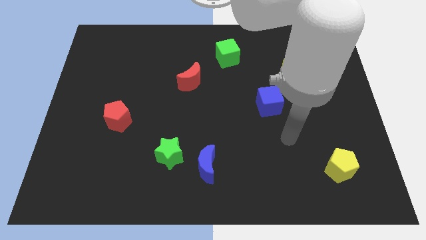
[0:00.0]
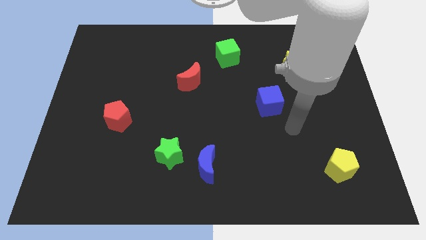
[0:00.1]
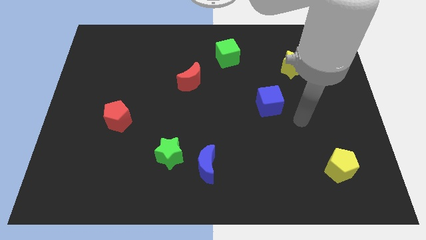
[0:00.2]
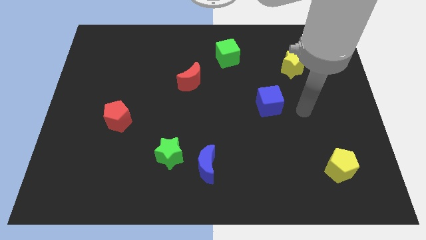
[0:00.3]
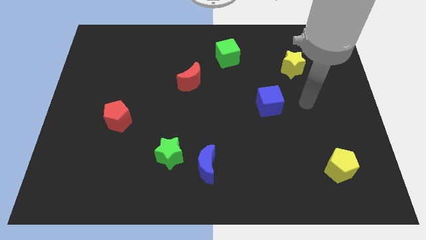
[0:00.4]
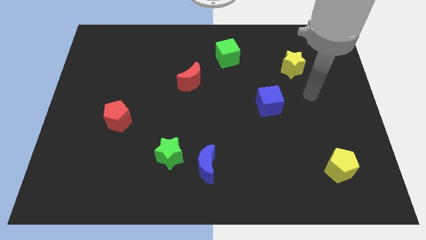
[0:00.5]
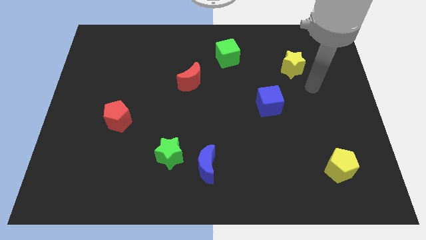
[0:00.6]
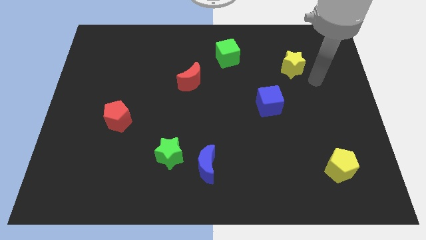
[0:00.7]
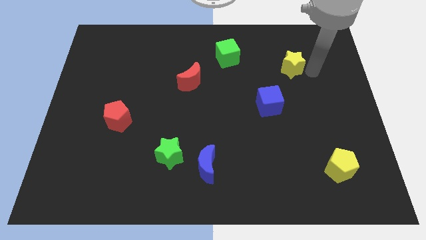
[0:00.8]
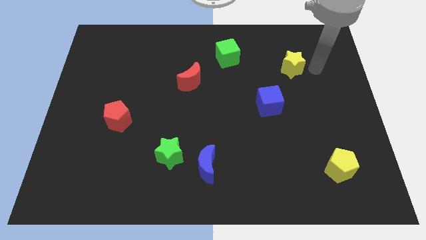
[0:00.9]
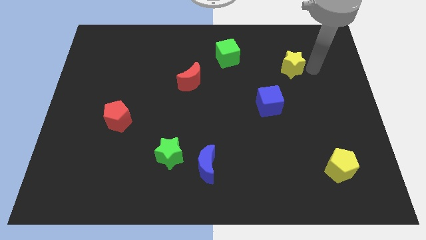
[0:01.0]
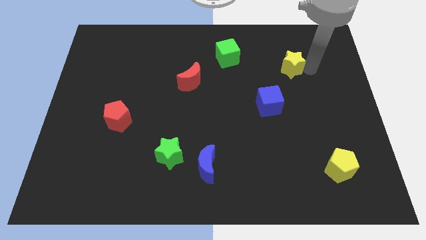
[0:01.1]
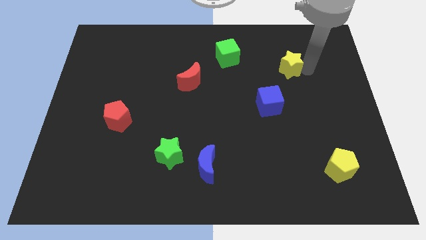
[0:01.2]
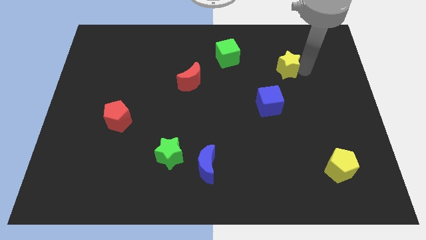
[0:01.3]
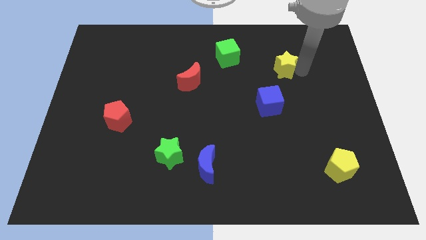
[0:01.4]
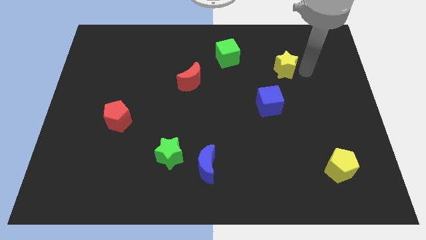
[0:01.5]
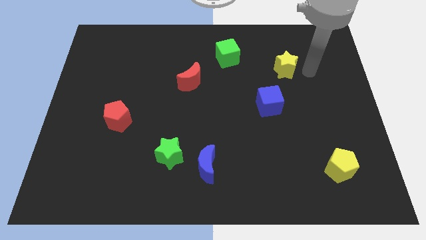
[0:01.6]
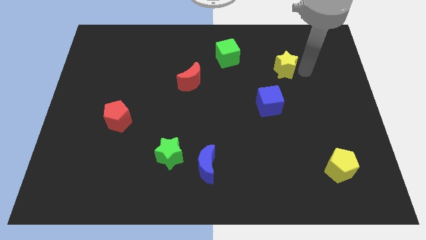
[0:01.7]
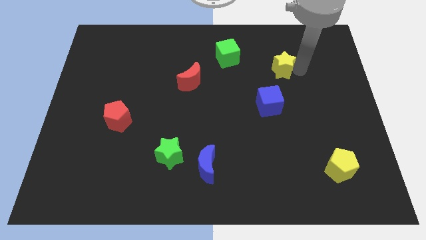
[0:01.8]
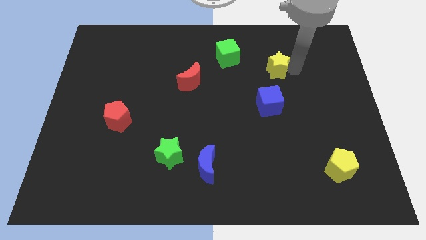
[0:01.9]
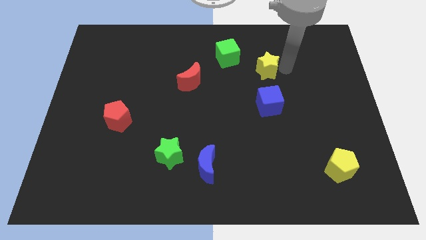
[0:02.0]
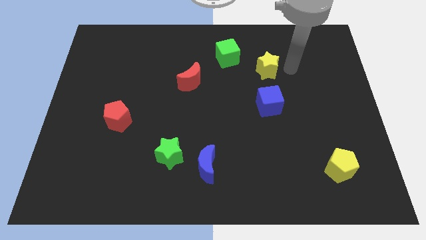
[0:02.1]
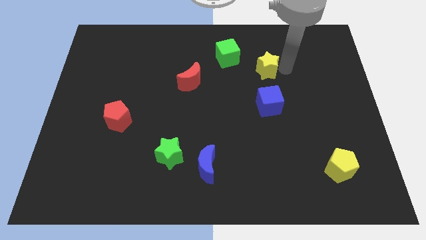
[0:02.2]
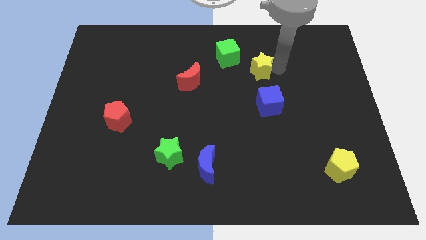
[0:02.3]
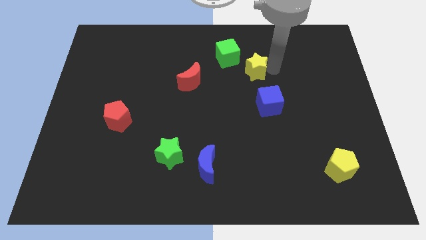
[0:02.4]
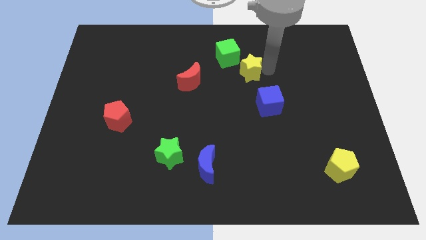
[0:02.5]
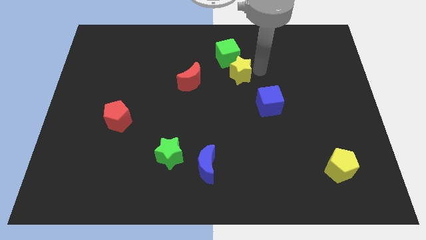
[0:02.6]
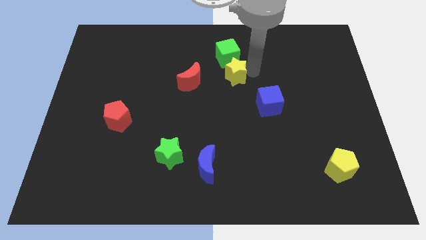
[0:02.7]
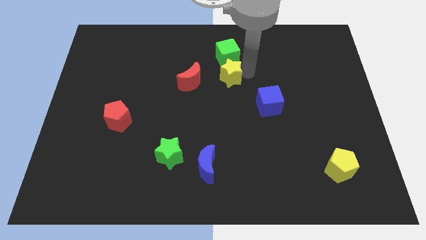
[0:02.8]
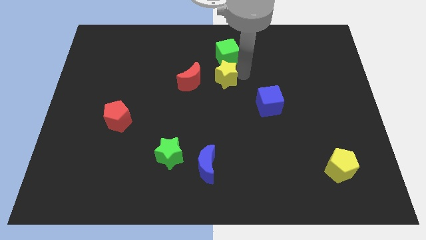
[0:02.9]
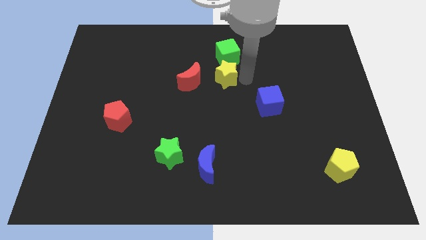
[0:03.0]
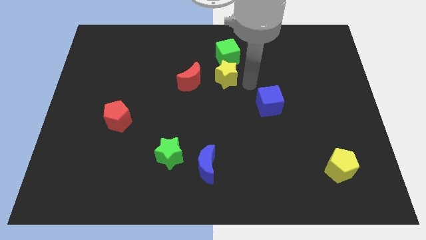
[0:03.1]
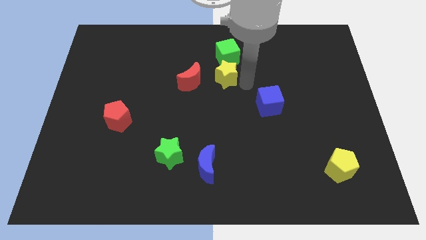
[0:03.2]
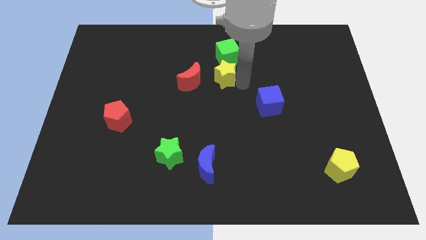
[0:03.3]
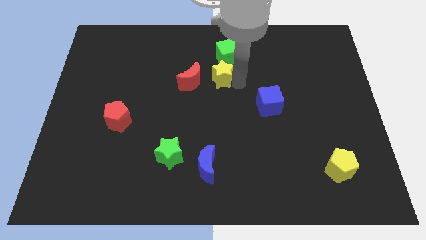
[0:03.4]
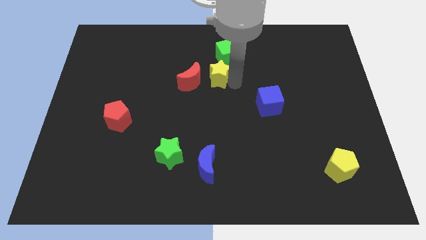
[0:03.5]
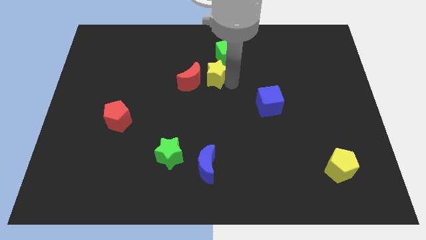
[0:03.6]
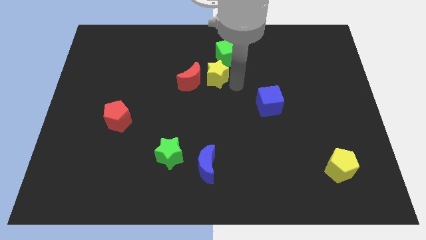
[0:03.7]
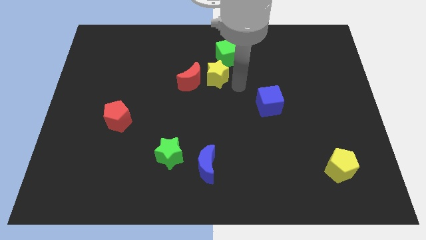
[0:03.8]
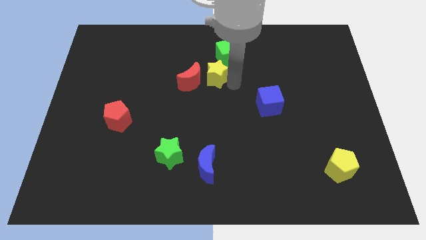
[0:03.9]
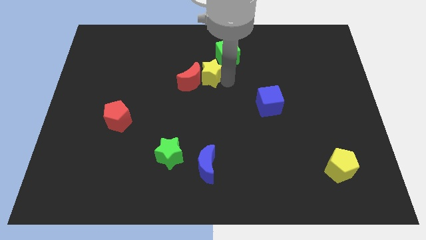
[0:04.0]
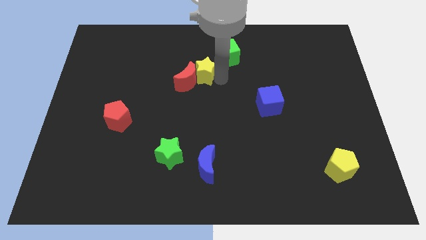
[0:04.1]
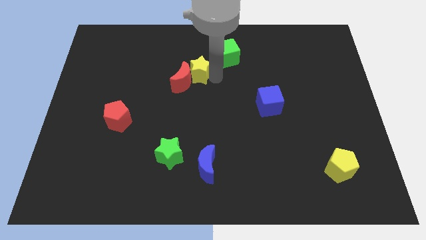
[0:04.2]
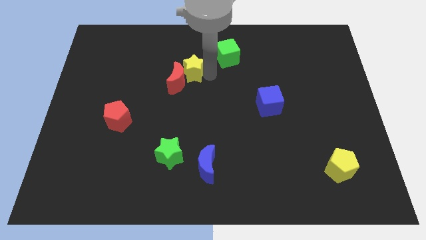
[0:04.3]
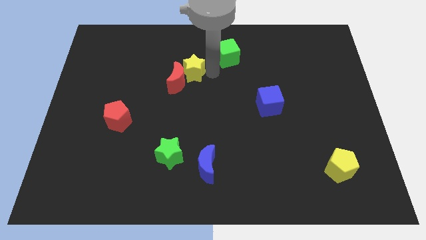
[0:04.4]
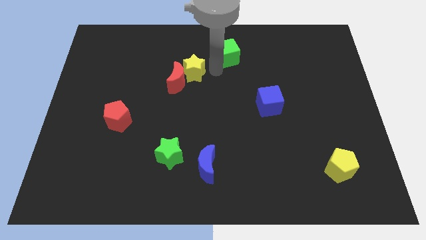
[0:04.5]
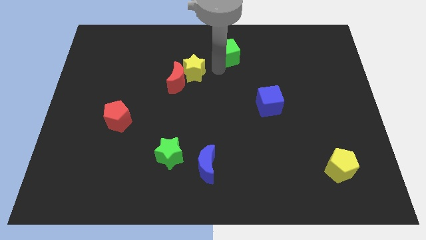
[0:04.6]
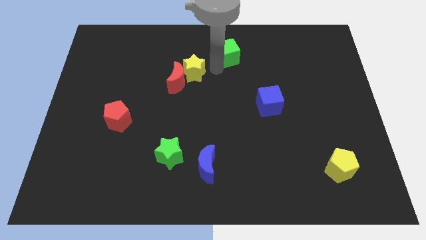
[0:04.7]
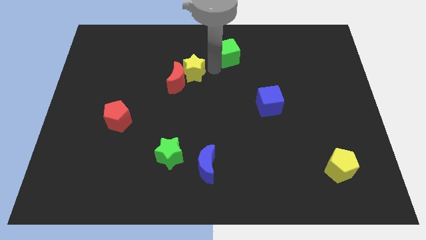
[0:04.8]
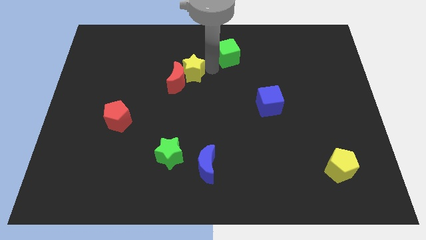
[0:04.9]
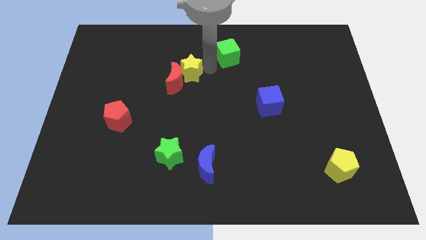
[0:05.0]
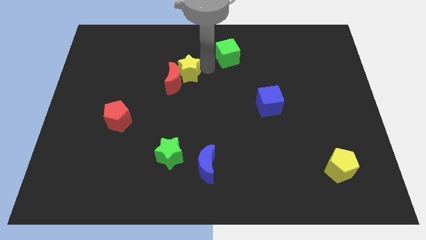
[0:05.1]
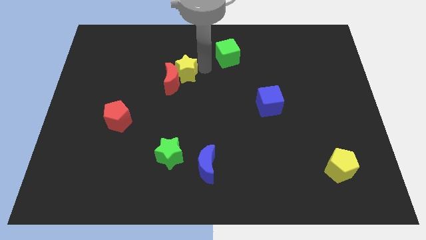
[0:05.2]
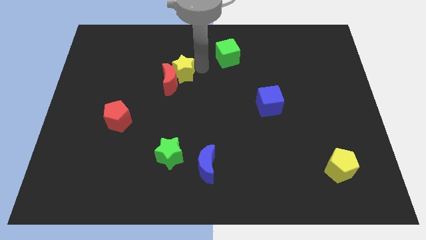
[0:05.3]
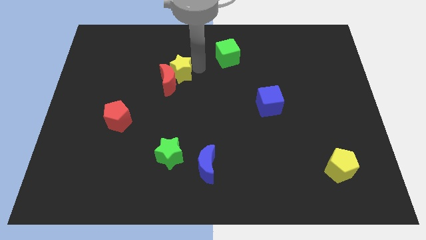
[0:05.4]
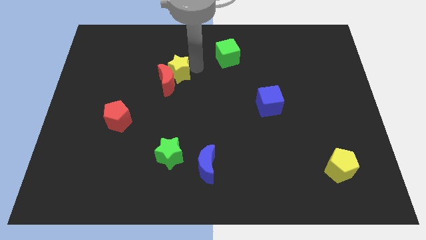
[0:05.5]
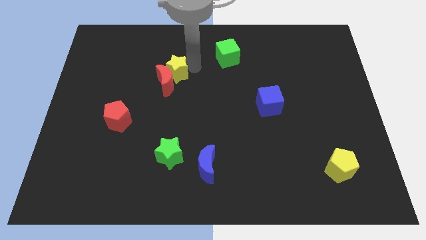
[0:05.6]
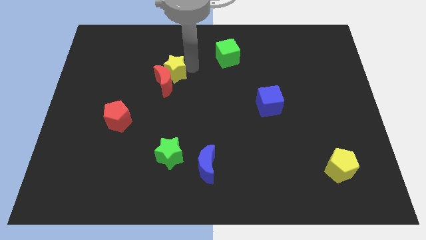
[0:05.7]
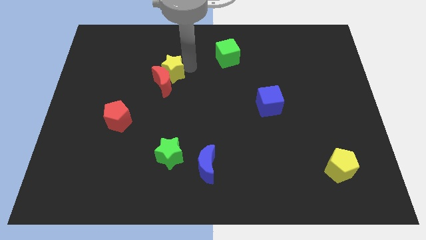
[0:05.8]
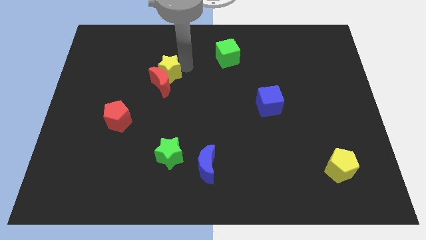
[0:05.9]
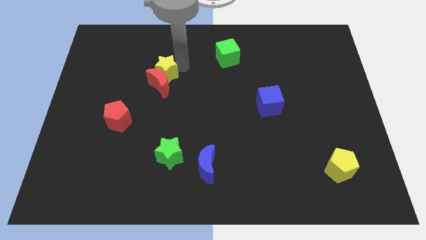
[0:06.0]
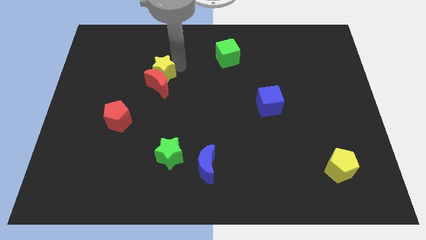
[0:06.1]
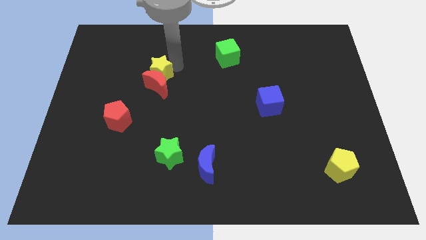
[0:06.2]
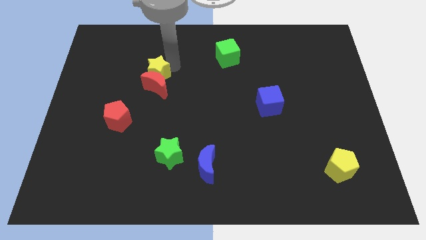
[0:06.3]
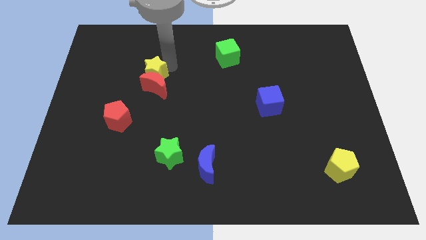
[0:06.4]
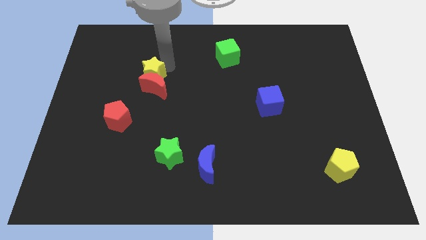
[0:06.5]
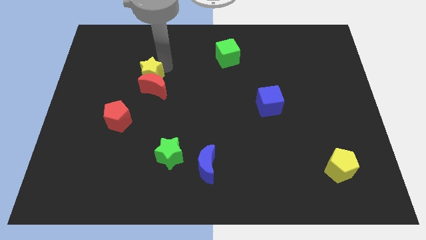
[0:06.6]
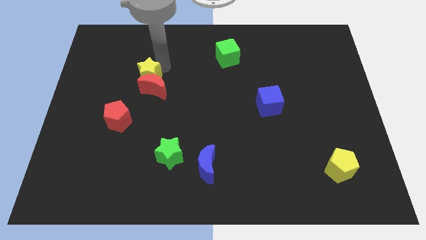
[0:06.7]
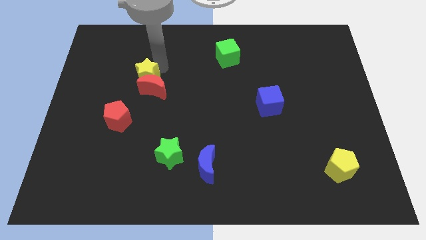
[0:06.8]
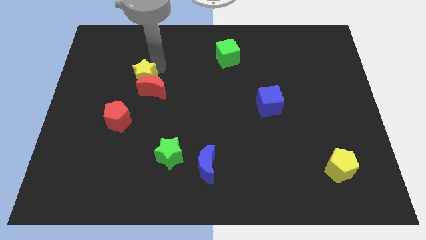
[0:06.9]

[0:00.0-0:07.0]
slide the yellow star above the red pentagon

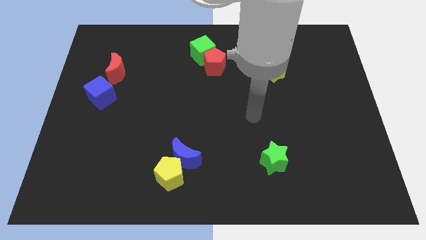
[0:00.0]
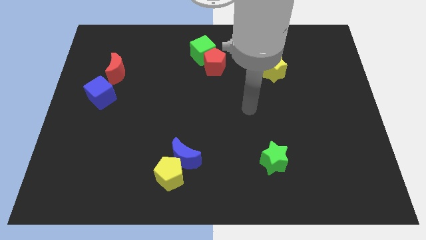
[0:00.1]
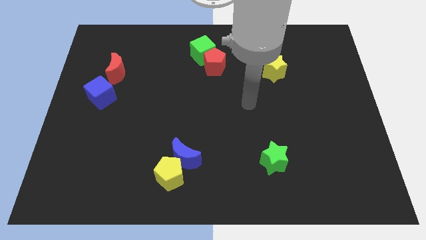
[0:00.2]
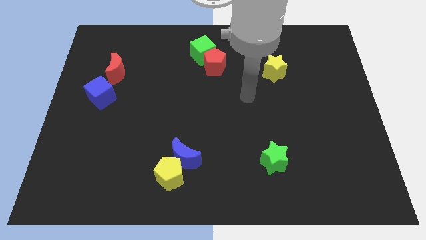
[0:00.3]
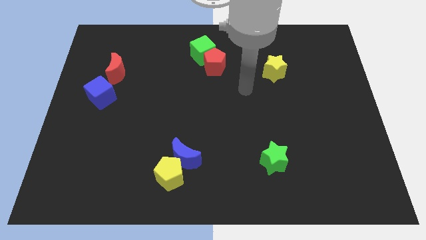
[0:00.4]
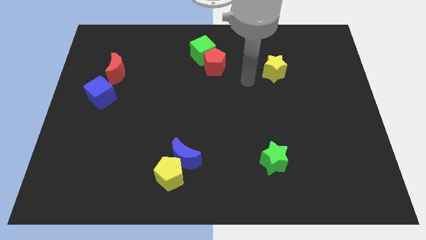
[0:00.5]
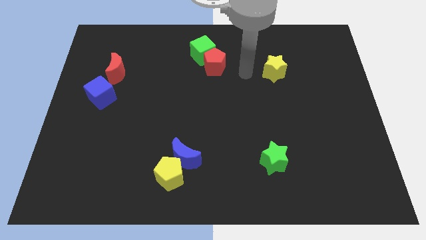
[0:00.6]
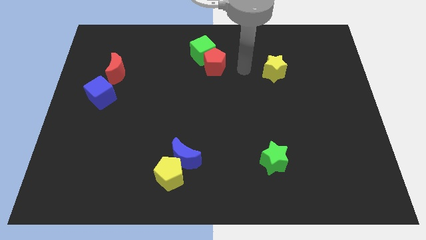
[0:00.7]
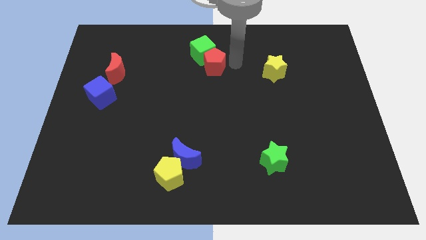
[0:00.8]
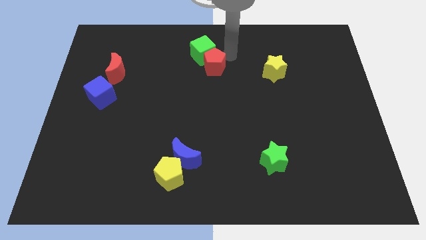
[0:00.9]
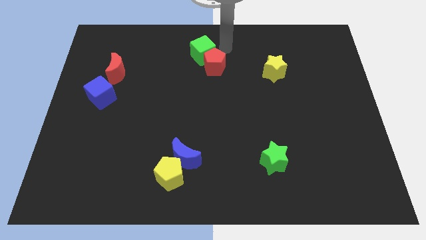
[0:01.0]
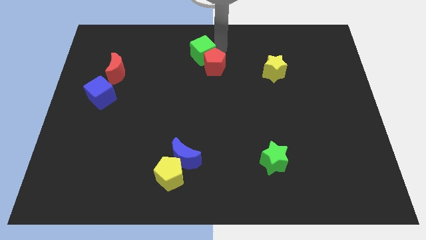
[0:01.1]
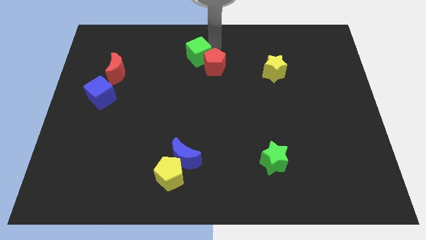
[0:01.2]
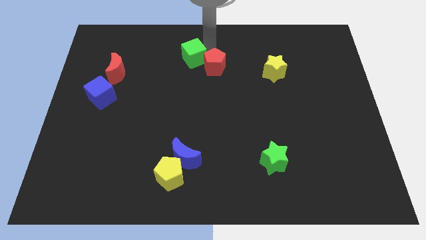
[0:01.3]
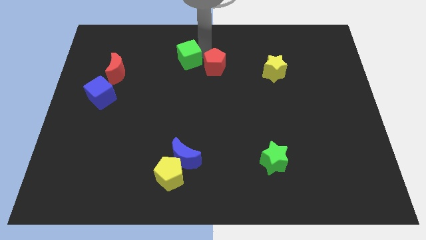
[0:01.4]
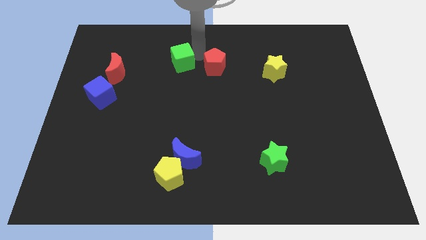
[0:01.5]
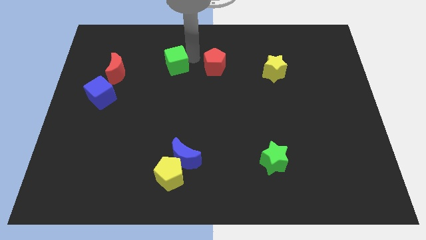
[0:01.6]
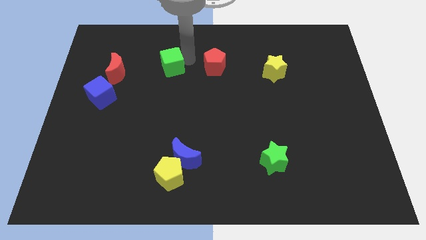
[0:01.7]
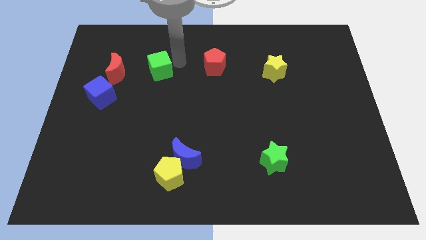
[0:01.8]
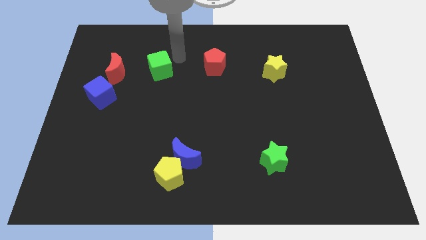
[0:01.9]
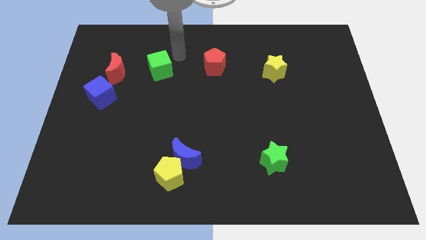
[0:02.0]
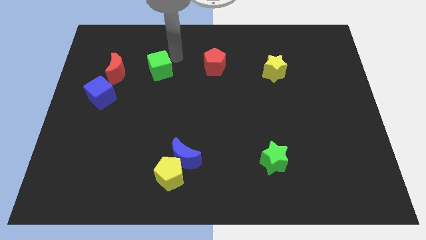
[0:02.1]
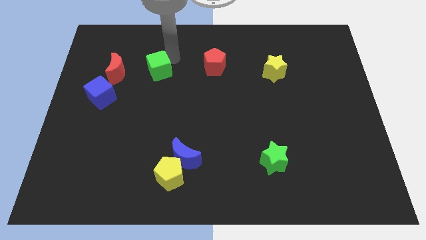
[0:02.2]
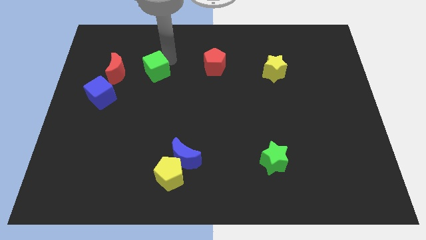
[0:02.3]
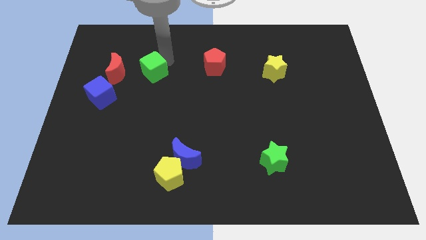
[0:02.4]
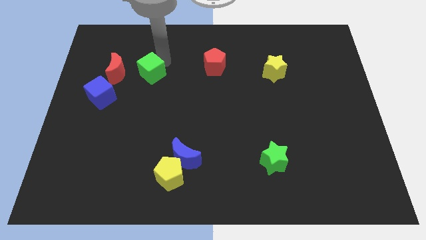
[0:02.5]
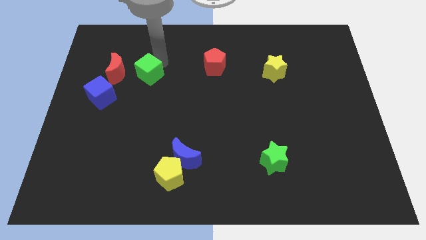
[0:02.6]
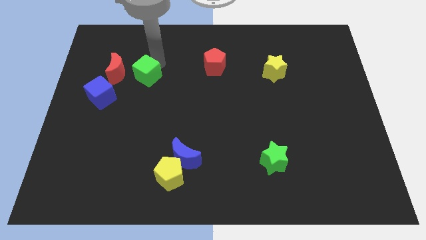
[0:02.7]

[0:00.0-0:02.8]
slide the green cube diagonally down and to the right of the red moon
